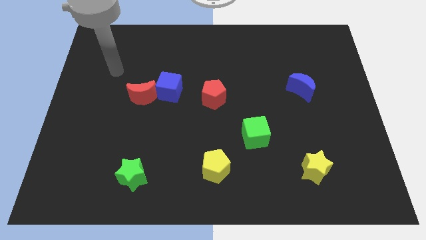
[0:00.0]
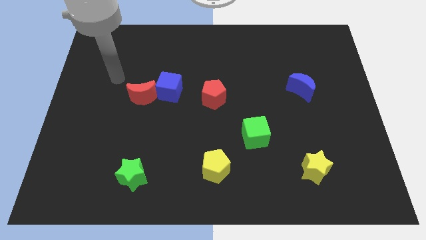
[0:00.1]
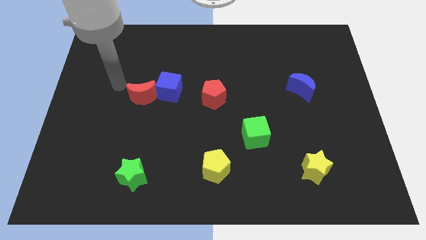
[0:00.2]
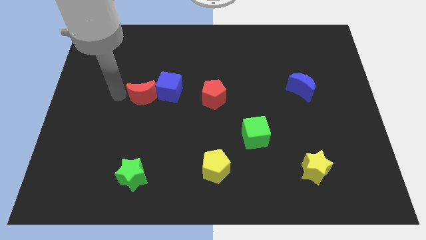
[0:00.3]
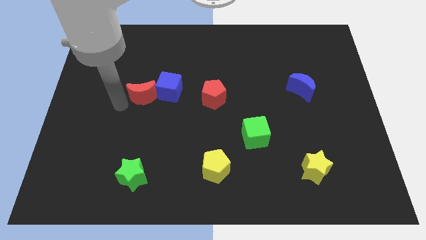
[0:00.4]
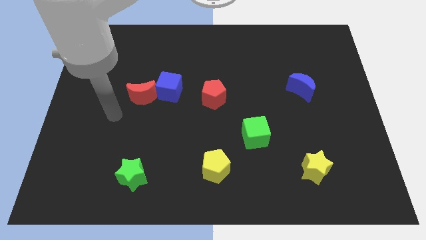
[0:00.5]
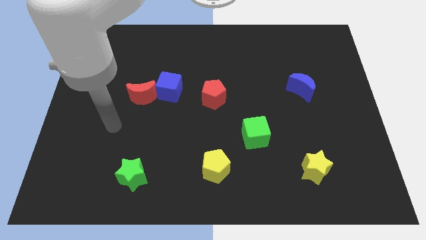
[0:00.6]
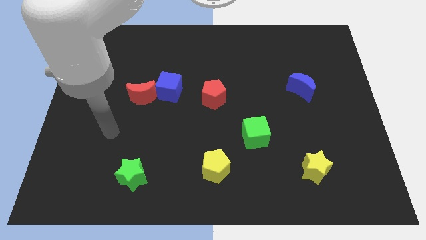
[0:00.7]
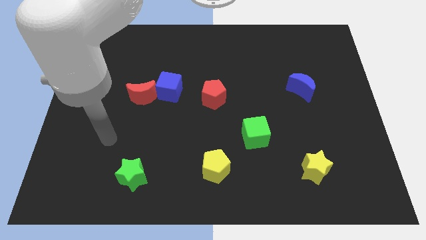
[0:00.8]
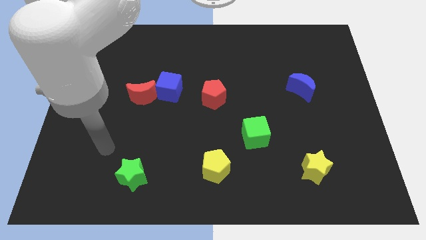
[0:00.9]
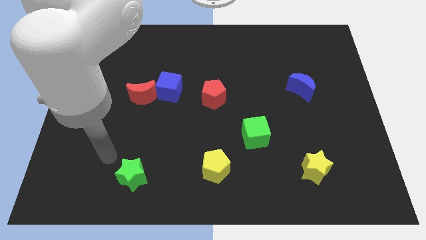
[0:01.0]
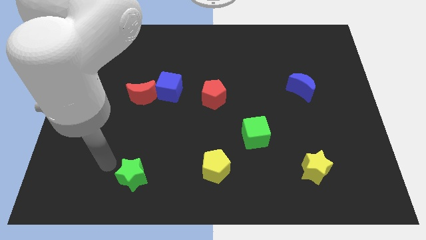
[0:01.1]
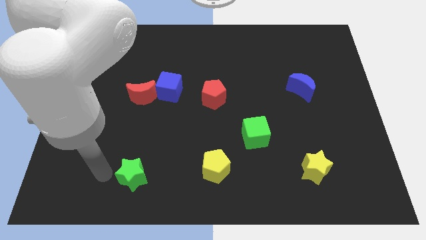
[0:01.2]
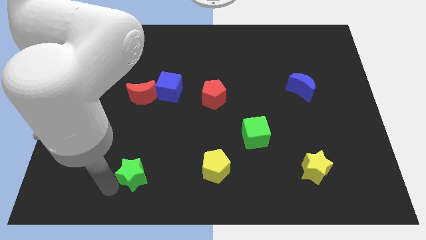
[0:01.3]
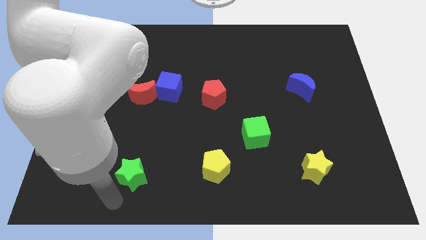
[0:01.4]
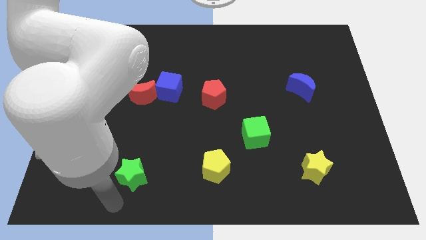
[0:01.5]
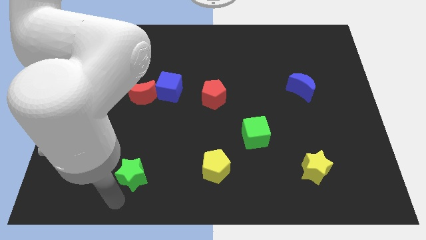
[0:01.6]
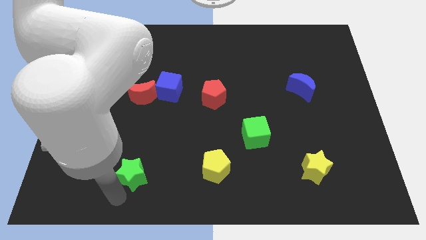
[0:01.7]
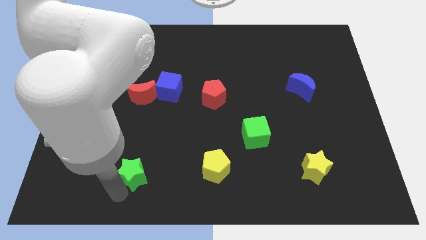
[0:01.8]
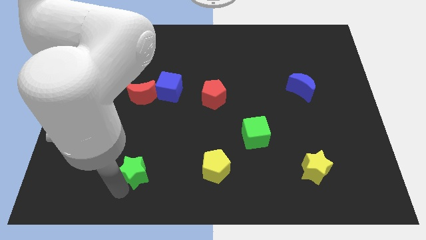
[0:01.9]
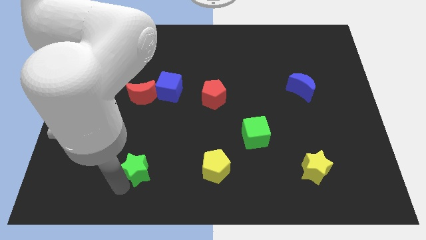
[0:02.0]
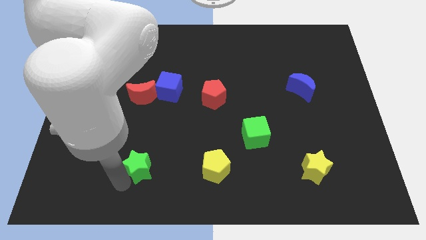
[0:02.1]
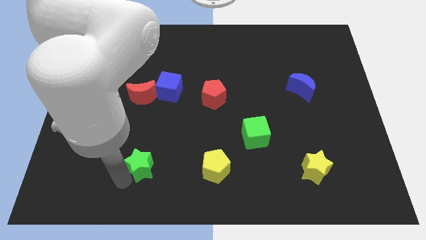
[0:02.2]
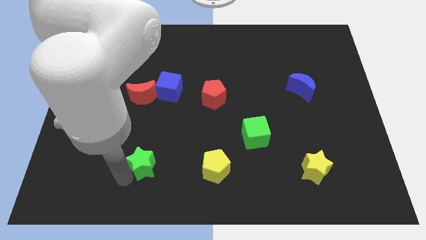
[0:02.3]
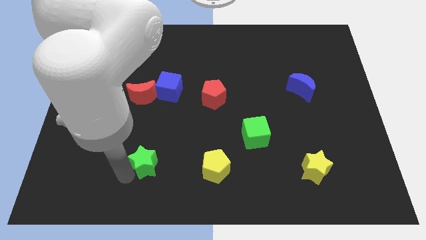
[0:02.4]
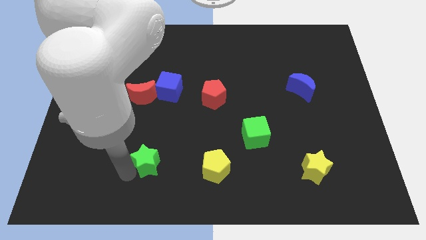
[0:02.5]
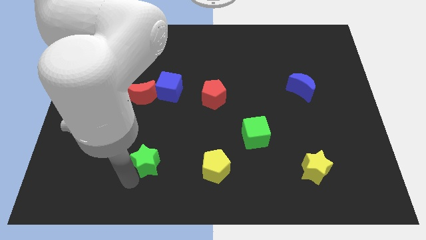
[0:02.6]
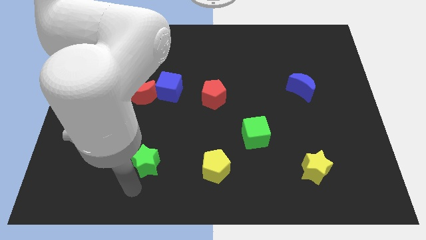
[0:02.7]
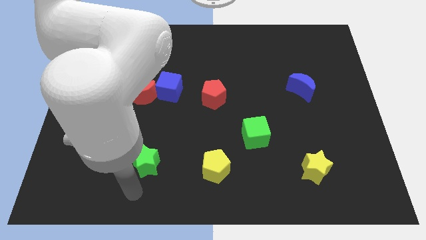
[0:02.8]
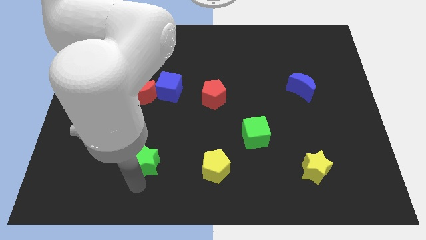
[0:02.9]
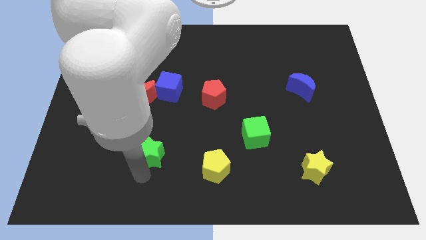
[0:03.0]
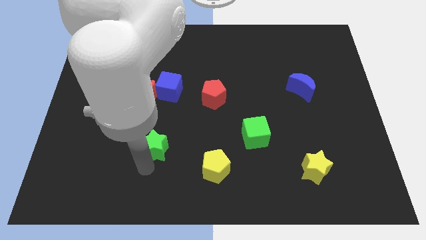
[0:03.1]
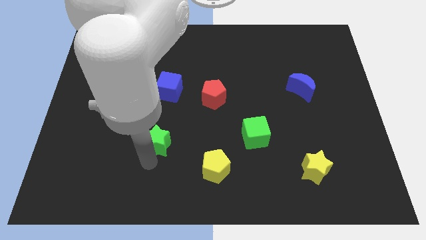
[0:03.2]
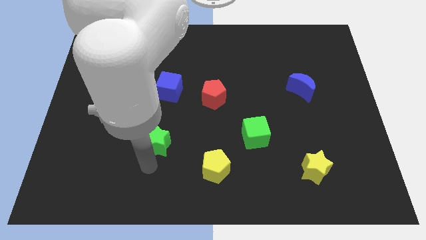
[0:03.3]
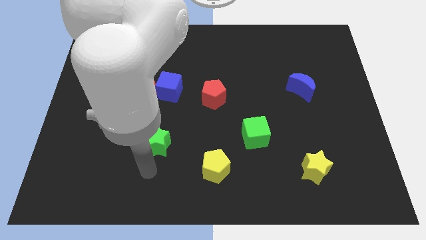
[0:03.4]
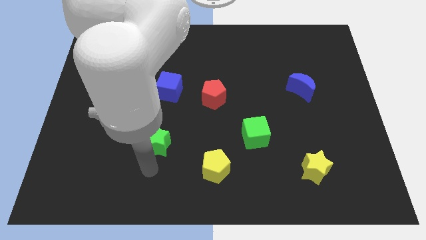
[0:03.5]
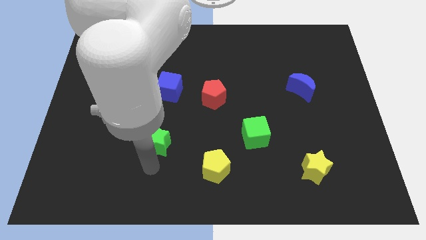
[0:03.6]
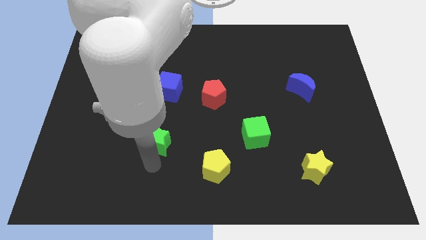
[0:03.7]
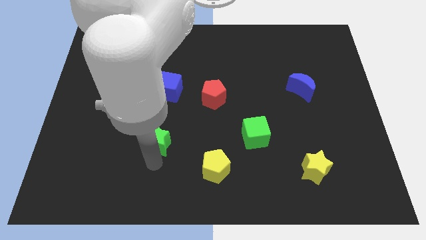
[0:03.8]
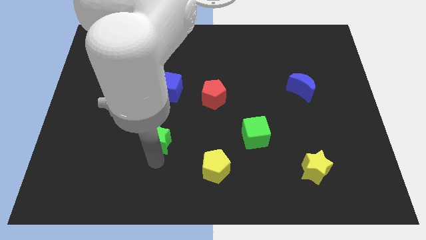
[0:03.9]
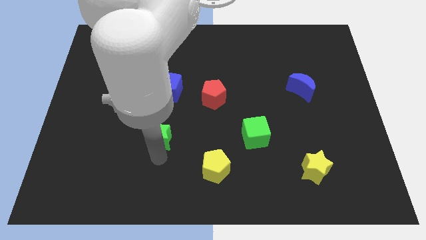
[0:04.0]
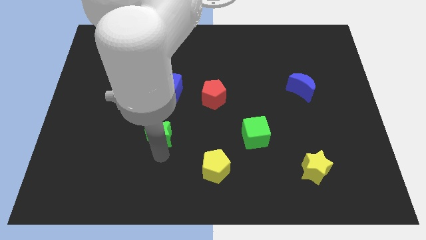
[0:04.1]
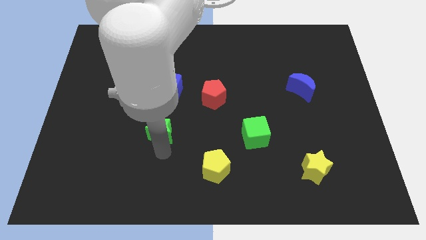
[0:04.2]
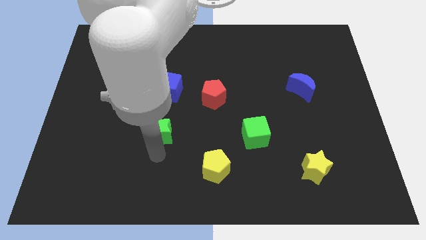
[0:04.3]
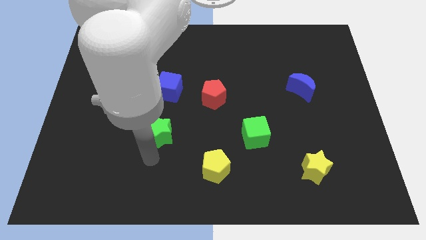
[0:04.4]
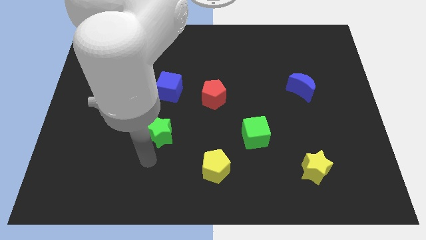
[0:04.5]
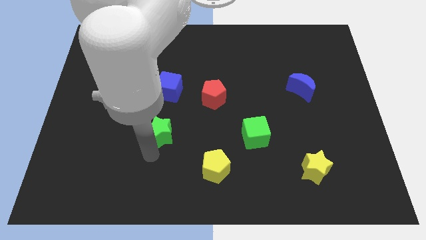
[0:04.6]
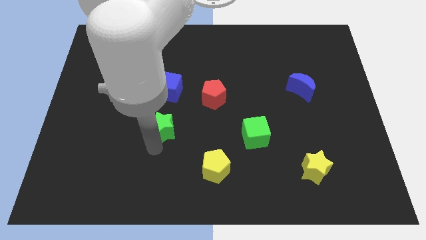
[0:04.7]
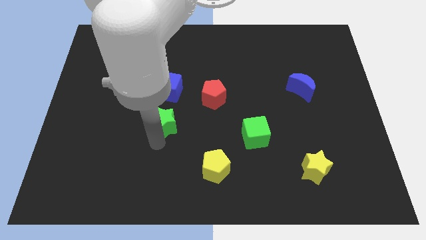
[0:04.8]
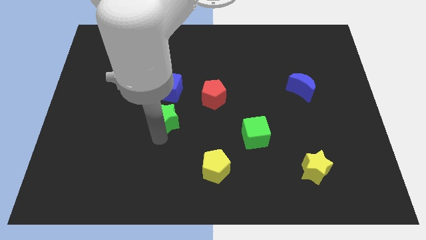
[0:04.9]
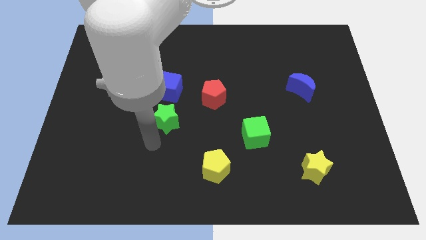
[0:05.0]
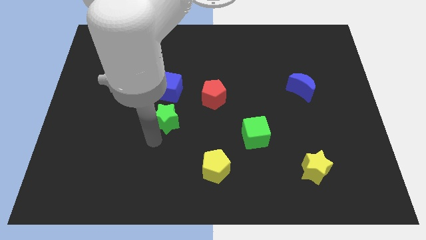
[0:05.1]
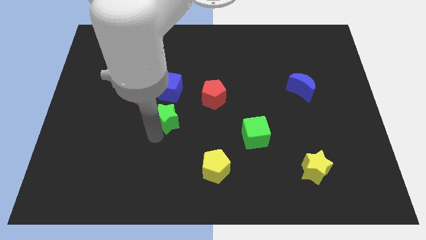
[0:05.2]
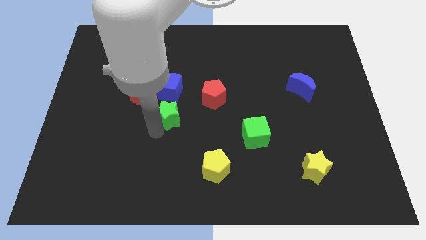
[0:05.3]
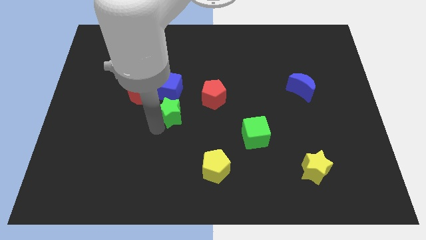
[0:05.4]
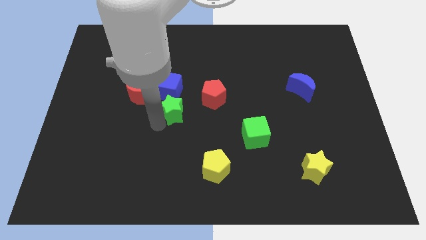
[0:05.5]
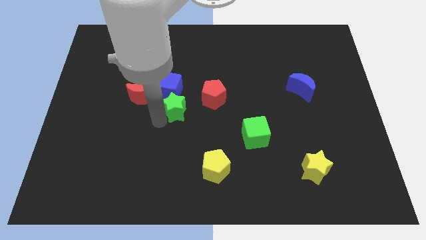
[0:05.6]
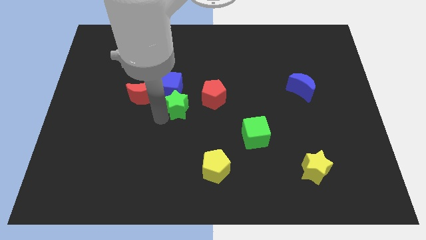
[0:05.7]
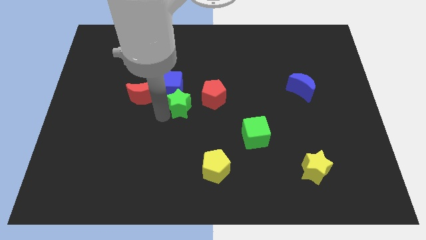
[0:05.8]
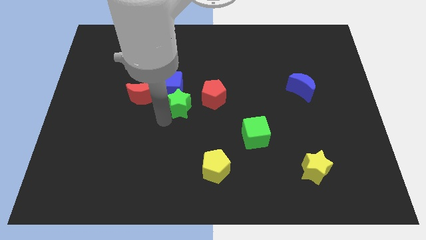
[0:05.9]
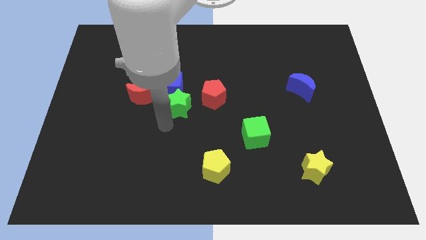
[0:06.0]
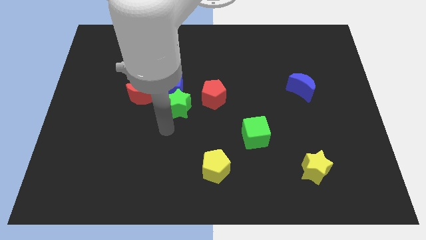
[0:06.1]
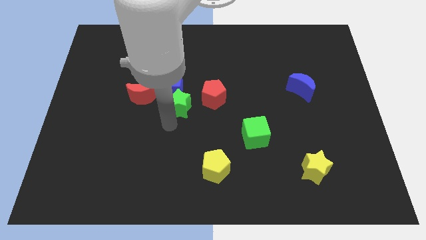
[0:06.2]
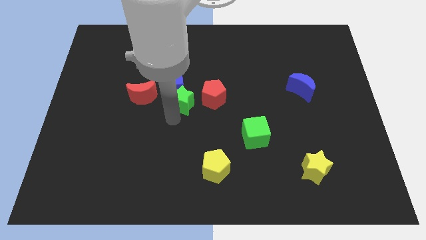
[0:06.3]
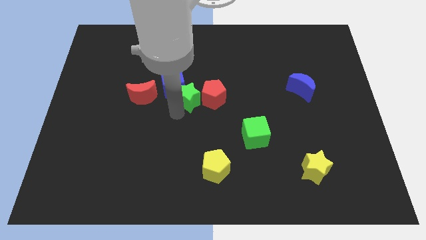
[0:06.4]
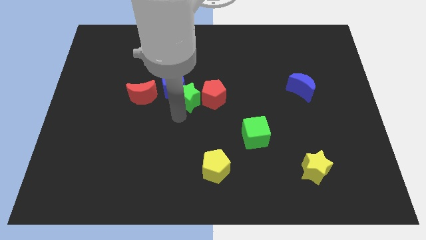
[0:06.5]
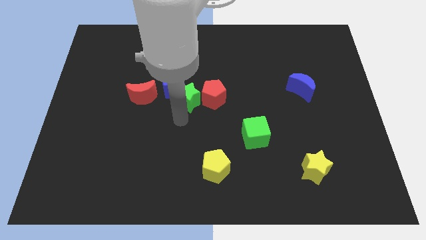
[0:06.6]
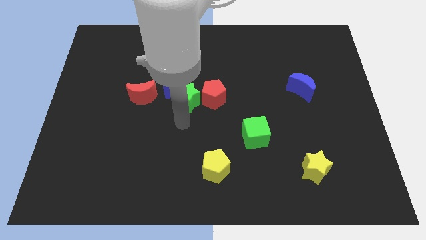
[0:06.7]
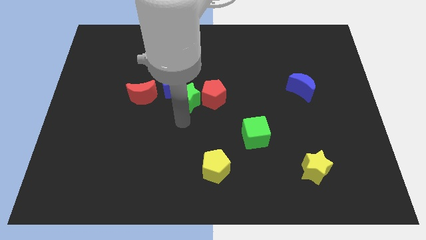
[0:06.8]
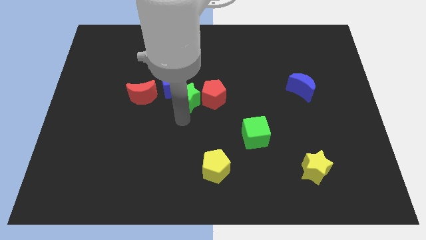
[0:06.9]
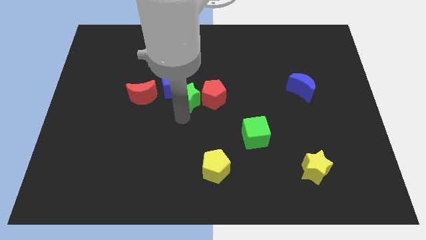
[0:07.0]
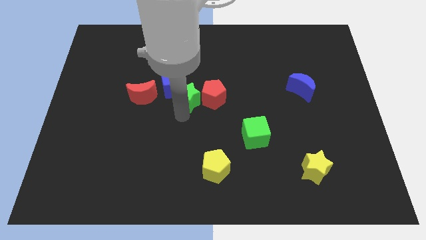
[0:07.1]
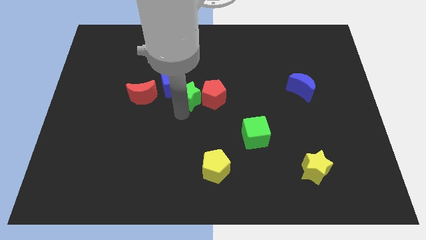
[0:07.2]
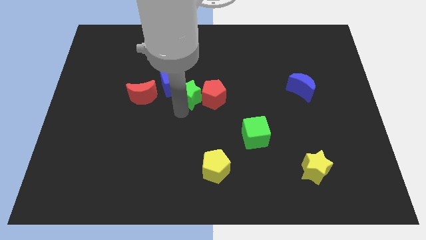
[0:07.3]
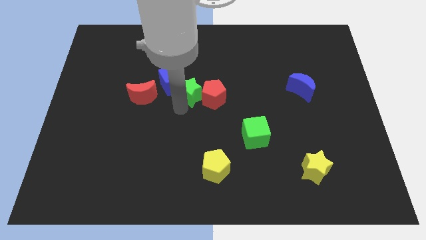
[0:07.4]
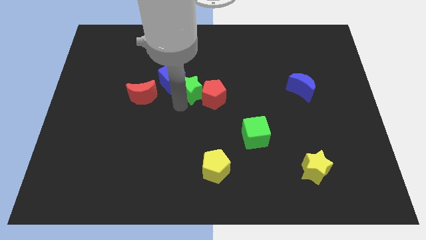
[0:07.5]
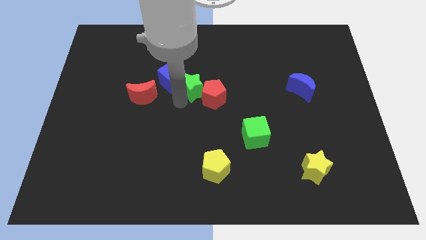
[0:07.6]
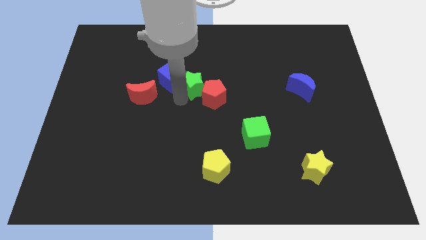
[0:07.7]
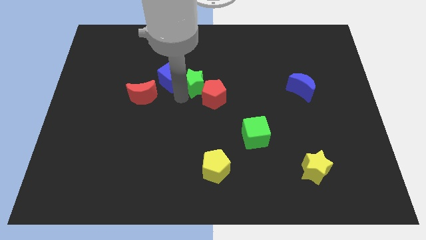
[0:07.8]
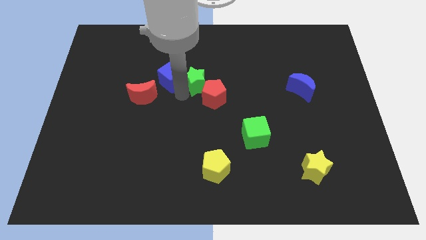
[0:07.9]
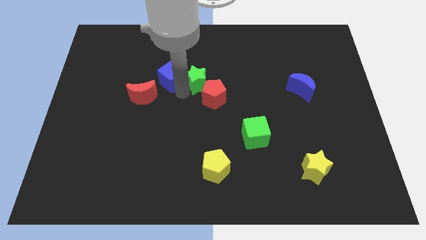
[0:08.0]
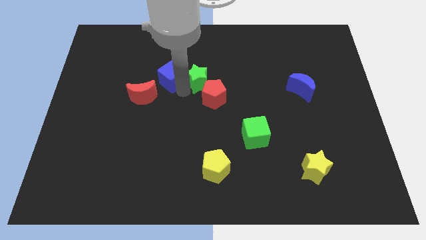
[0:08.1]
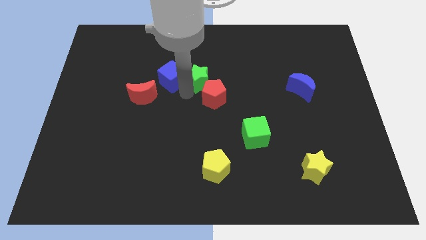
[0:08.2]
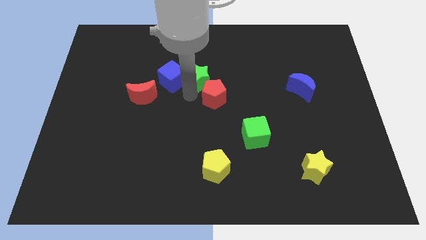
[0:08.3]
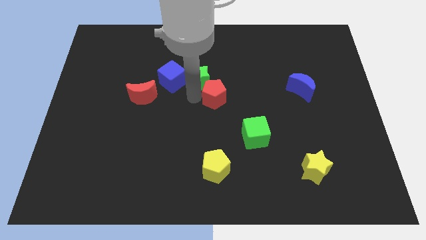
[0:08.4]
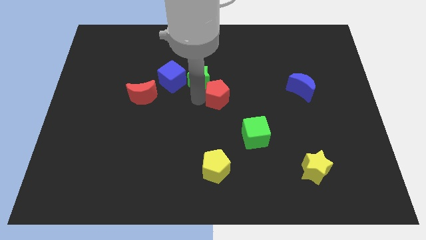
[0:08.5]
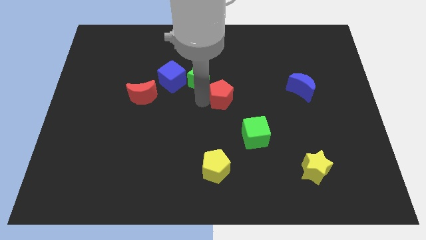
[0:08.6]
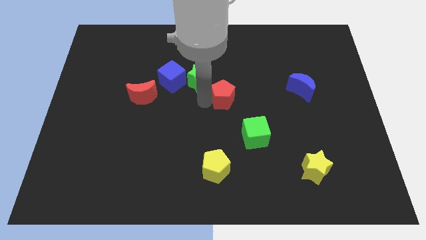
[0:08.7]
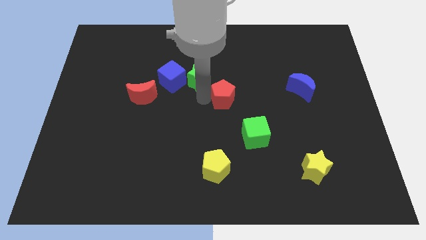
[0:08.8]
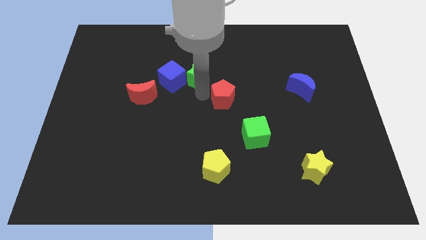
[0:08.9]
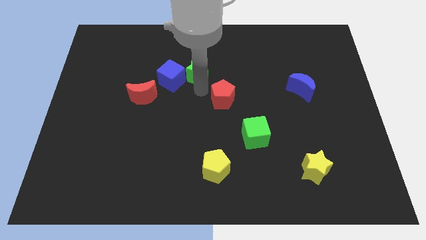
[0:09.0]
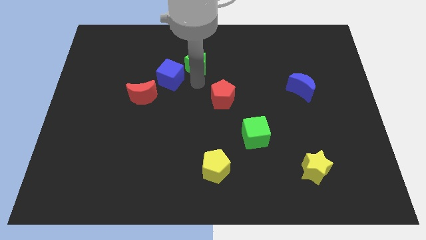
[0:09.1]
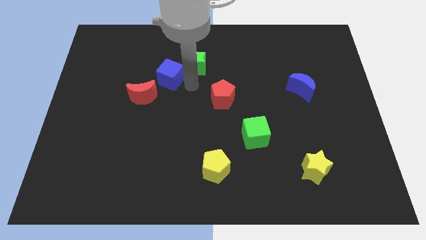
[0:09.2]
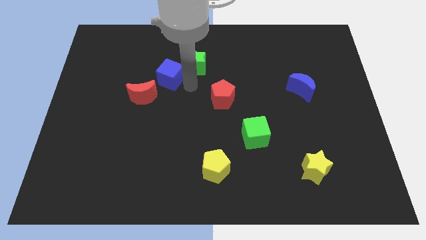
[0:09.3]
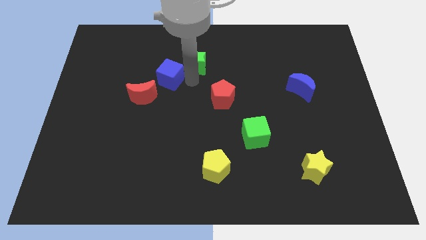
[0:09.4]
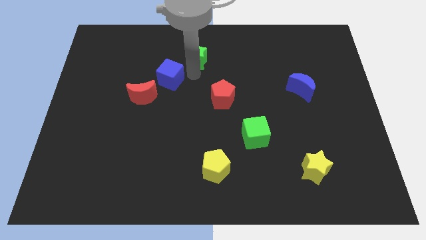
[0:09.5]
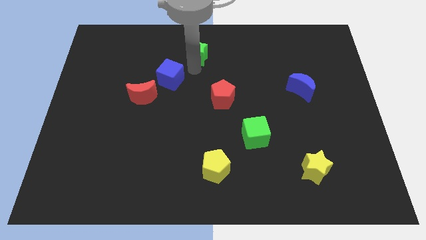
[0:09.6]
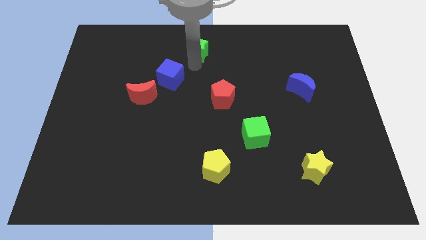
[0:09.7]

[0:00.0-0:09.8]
push the green star to the towards your base
